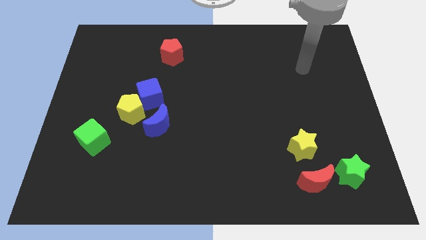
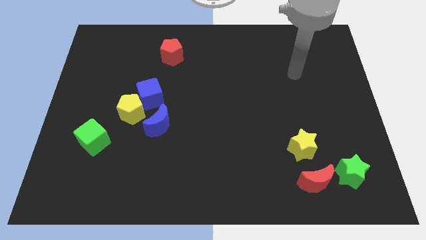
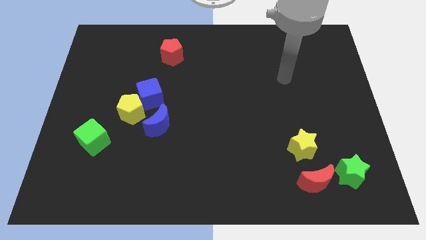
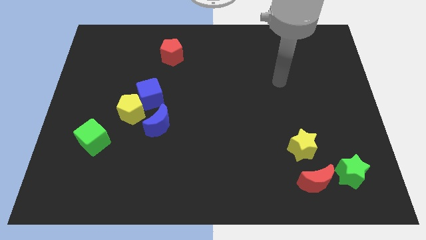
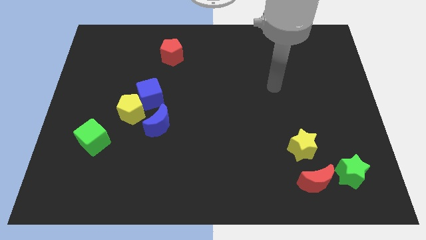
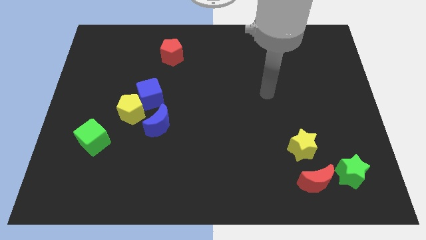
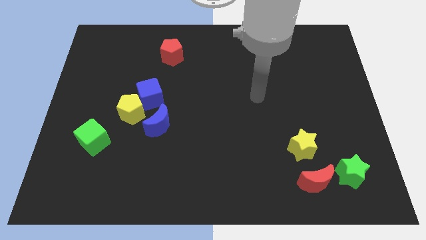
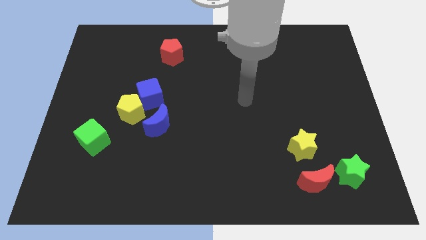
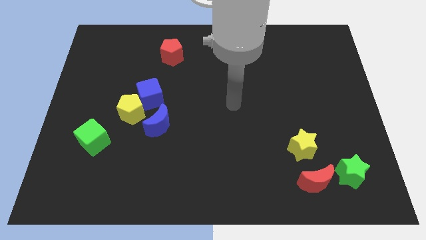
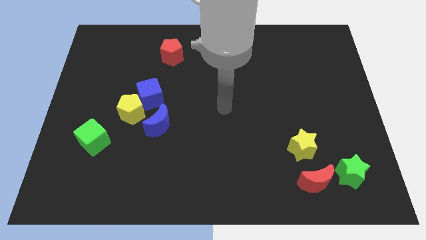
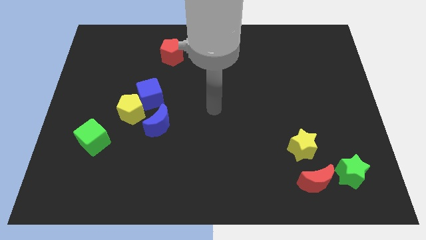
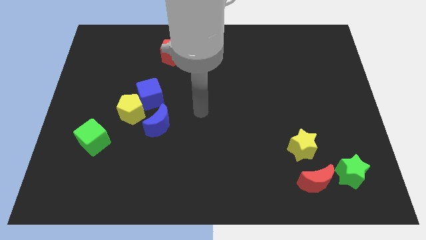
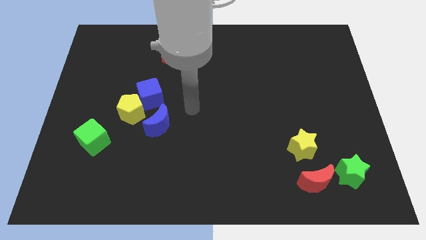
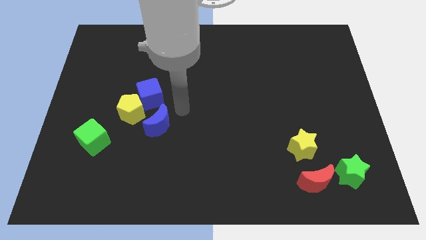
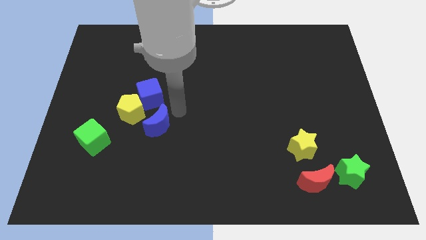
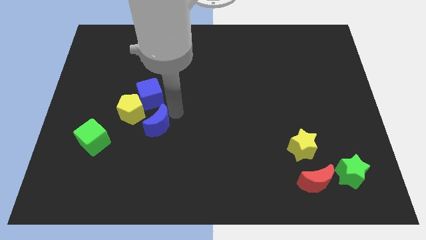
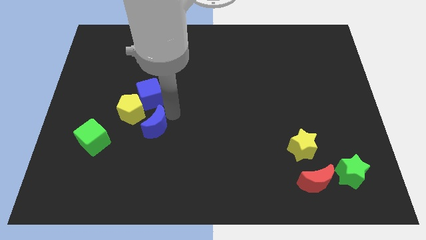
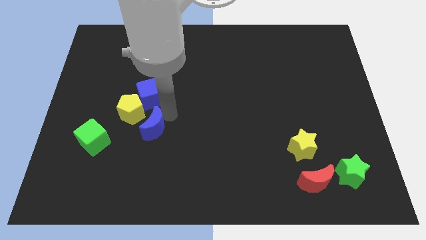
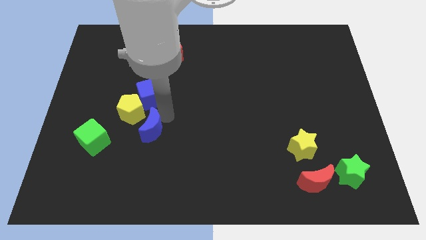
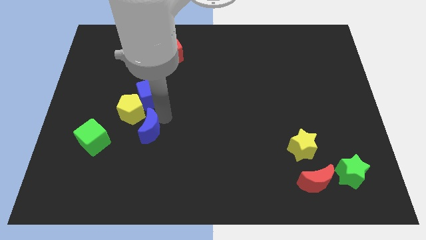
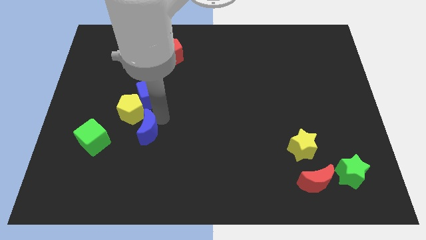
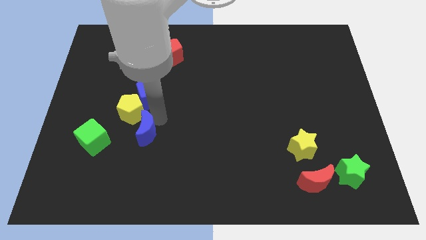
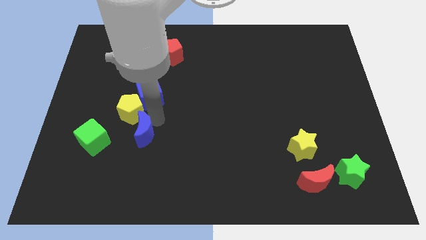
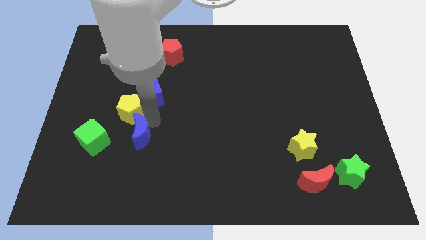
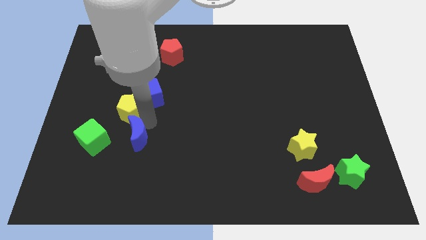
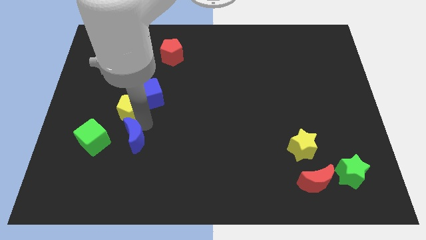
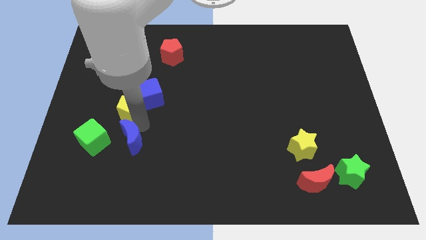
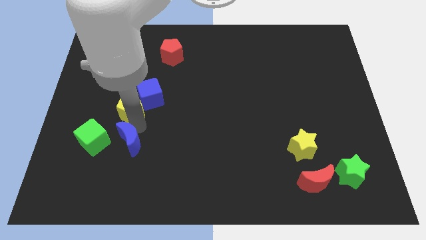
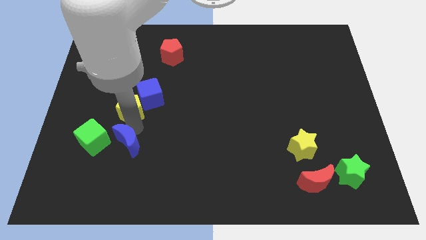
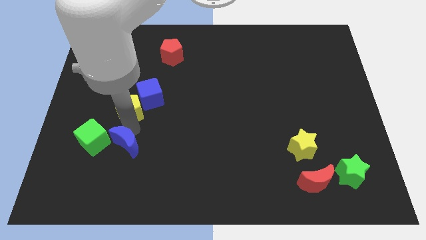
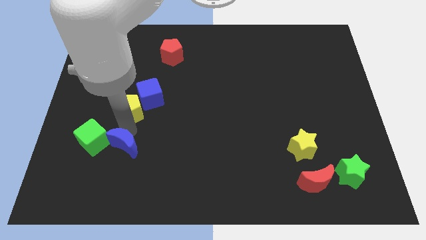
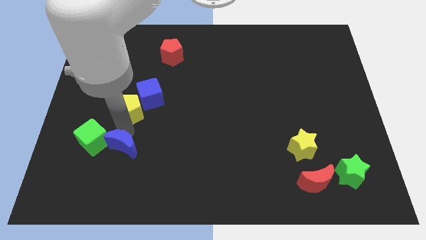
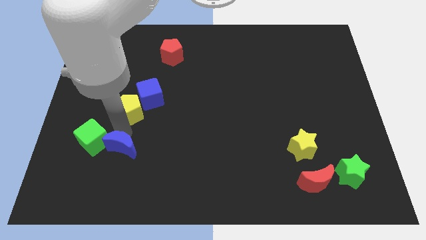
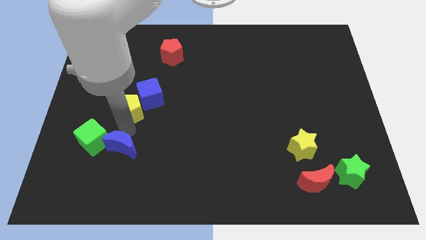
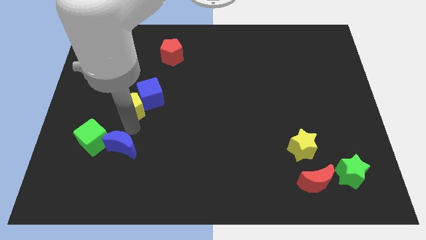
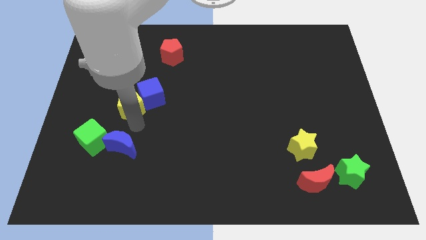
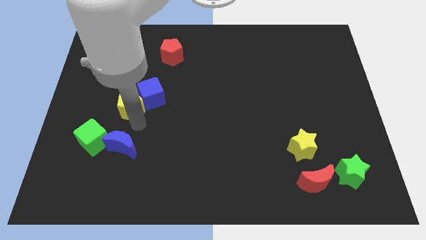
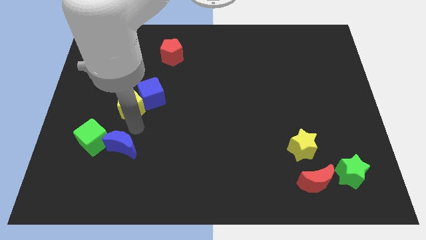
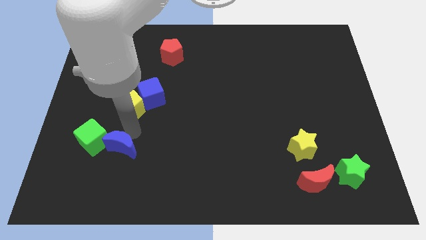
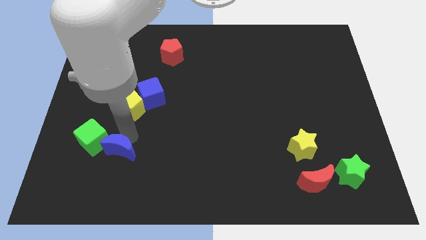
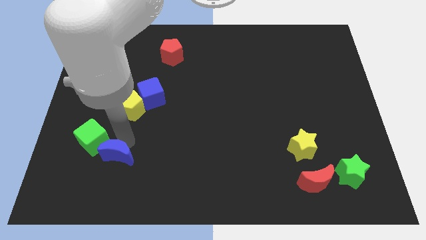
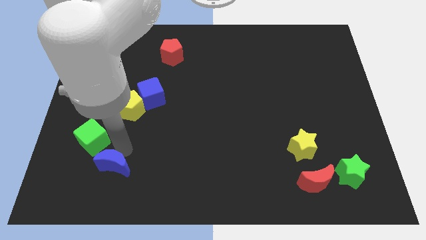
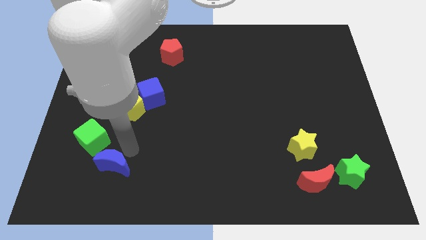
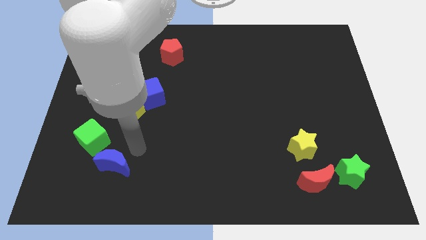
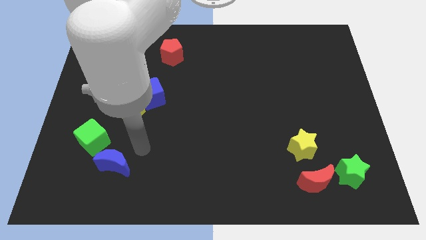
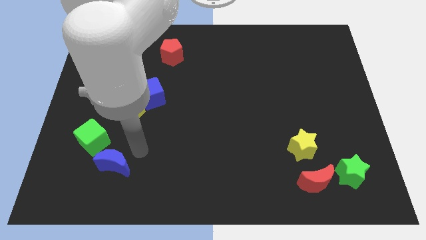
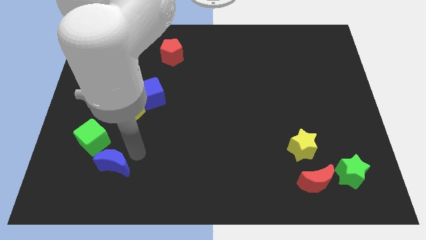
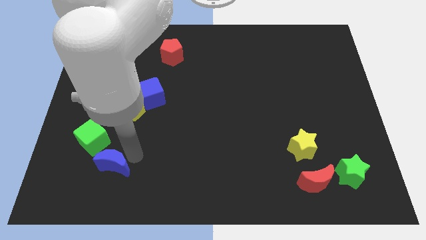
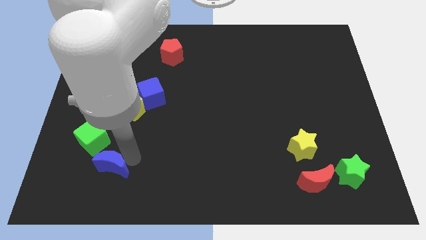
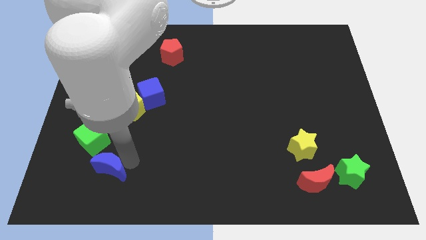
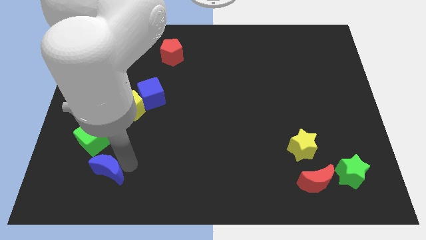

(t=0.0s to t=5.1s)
slide the blue moon to the bottom side of the green cube

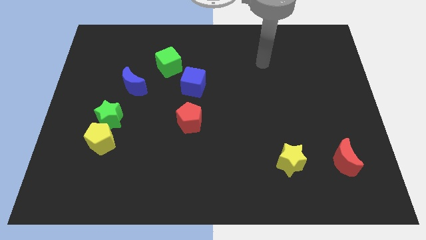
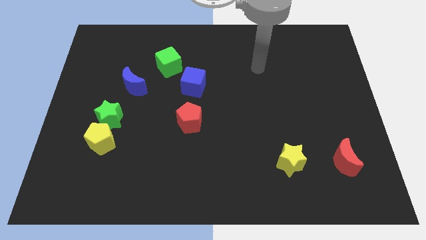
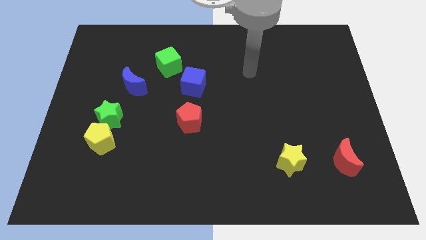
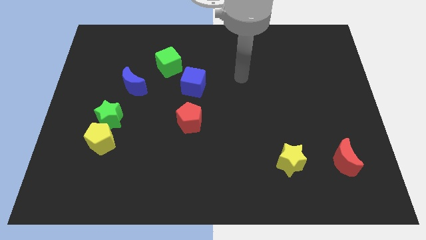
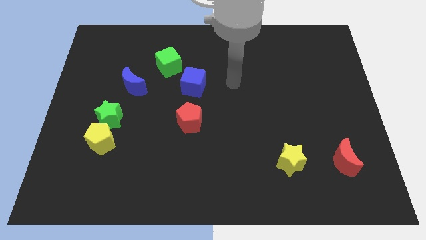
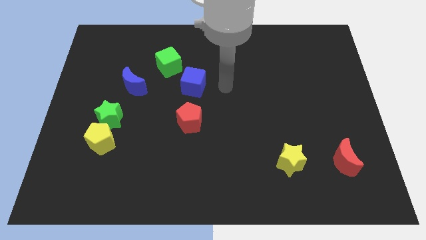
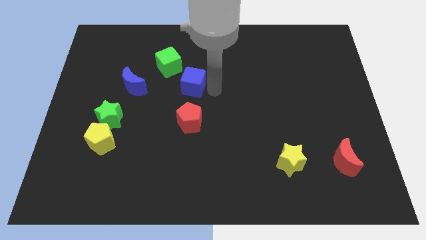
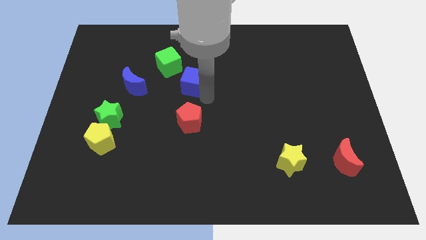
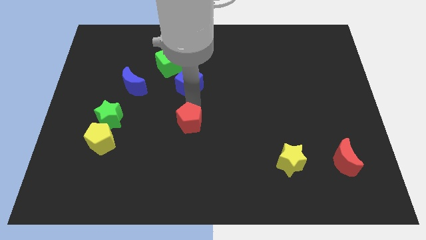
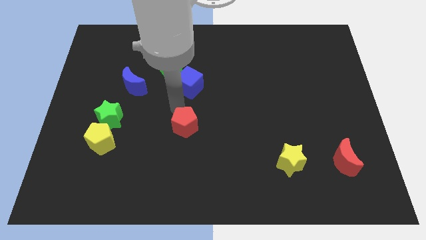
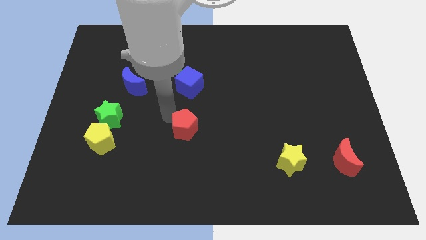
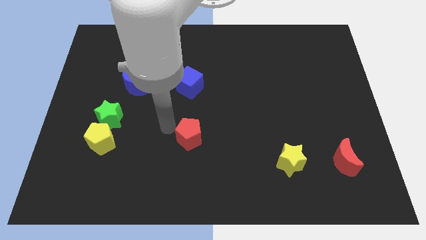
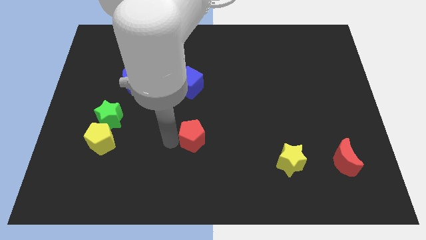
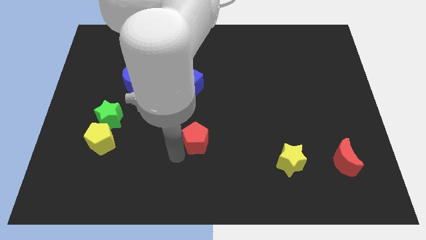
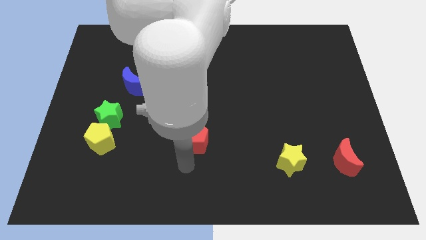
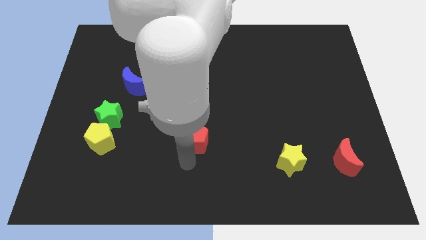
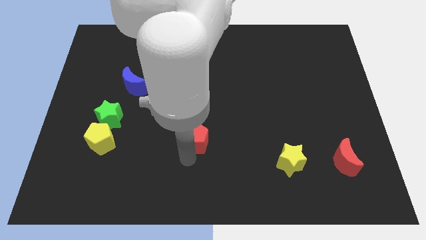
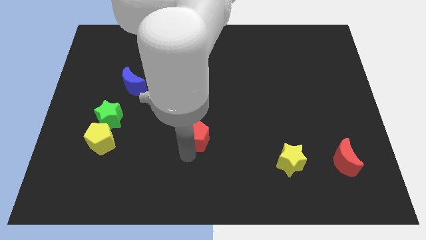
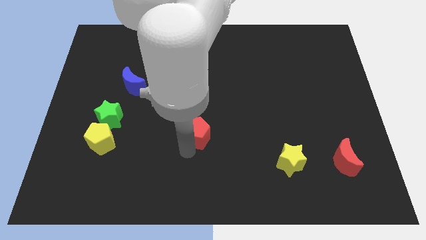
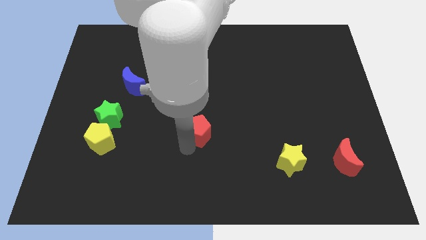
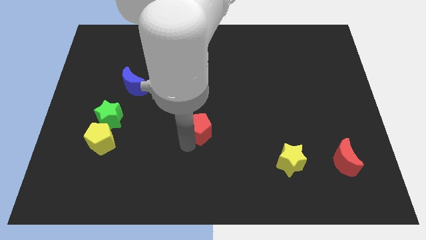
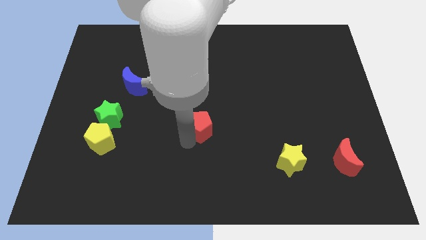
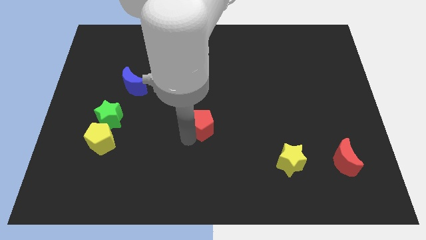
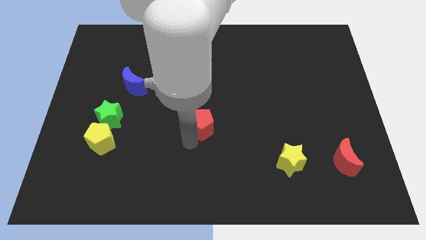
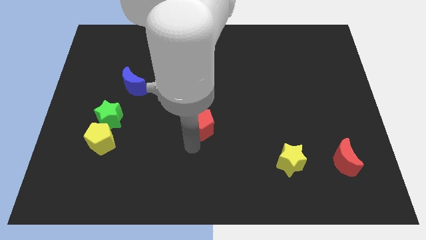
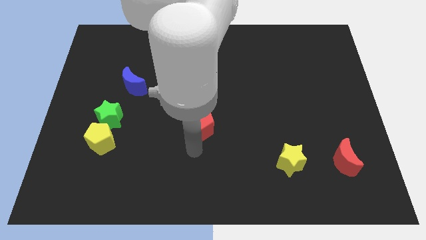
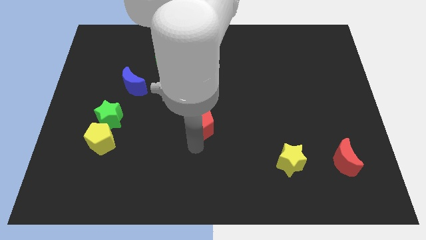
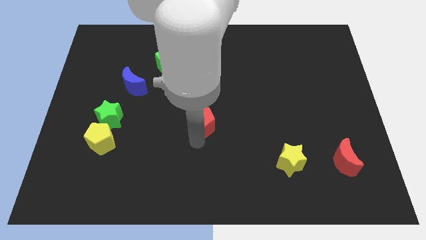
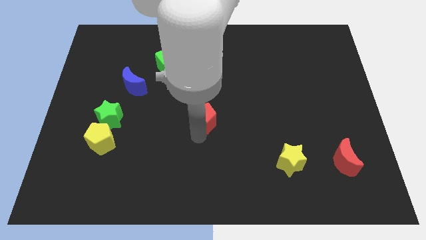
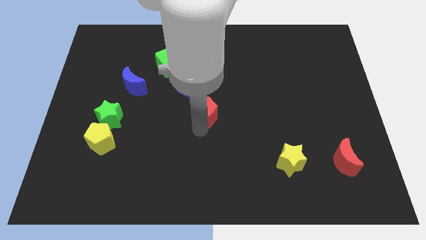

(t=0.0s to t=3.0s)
slide the red pentagon diagonally down and to the right of the blue cube
